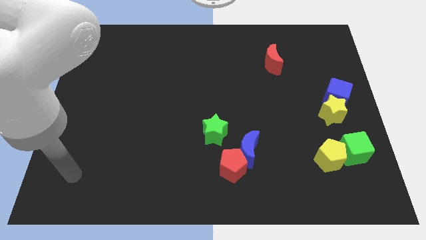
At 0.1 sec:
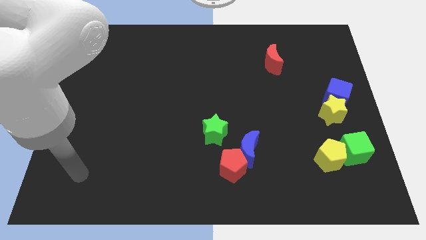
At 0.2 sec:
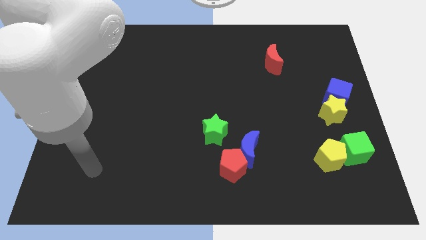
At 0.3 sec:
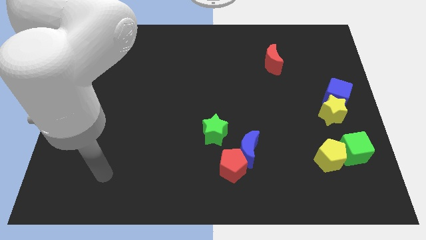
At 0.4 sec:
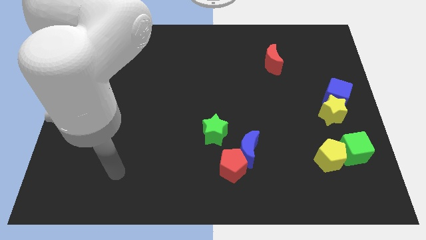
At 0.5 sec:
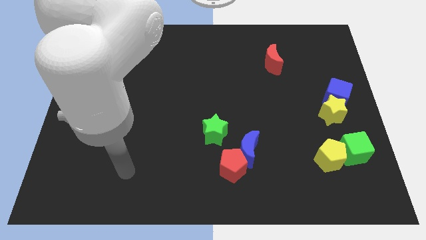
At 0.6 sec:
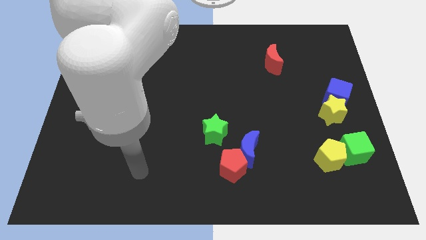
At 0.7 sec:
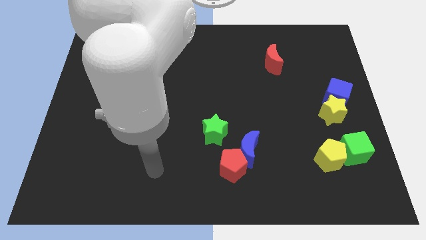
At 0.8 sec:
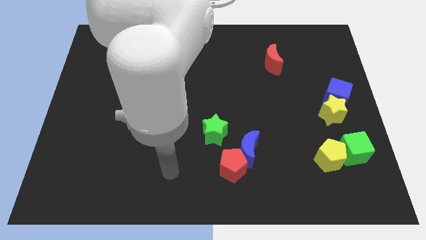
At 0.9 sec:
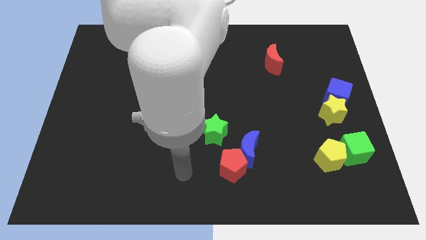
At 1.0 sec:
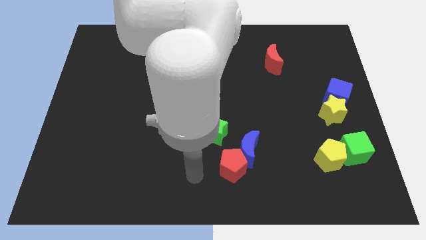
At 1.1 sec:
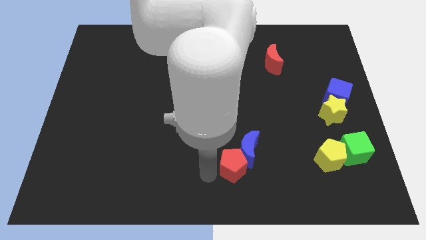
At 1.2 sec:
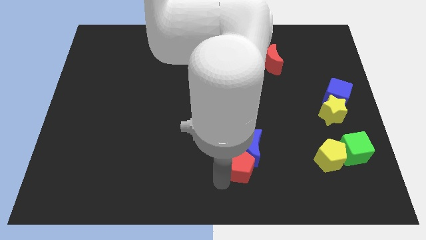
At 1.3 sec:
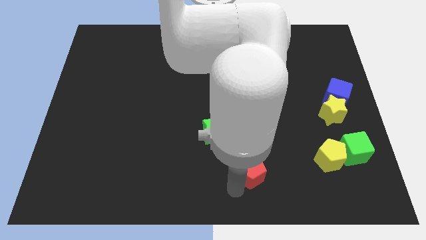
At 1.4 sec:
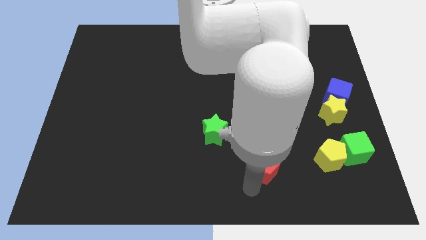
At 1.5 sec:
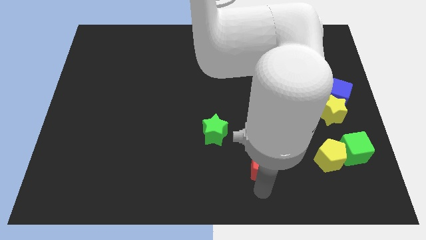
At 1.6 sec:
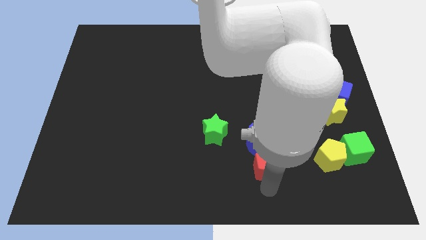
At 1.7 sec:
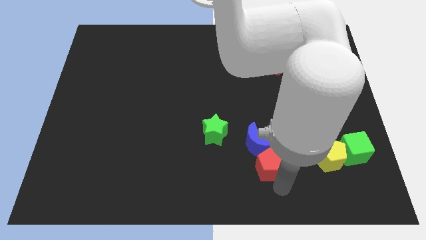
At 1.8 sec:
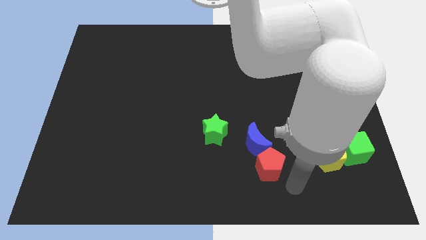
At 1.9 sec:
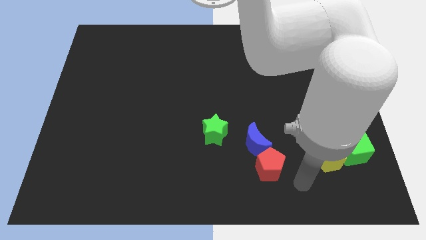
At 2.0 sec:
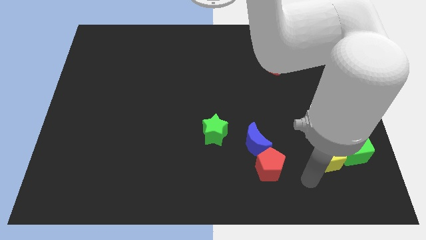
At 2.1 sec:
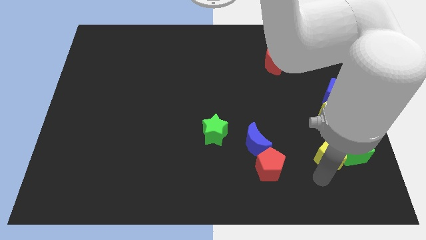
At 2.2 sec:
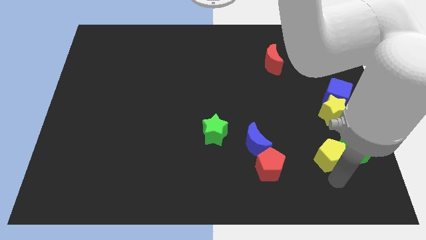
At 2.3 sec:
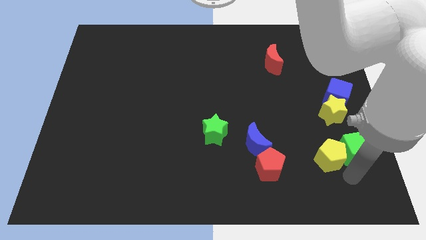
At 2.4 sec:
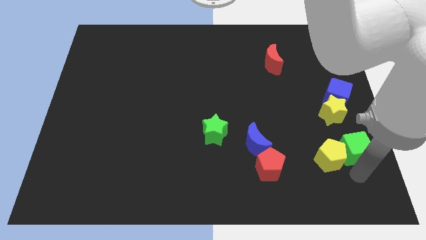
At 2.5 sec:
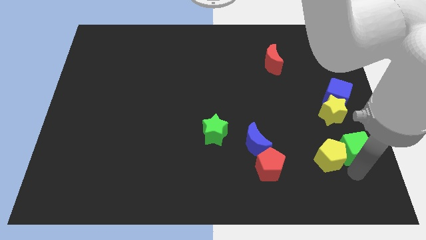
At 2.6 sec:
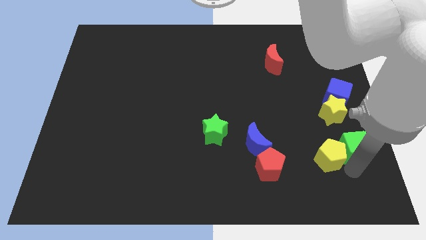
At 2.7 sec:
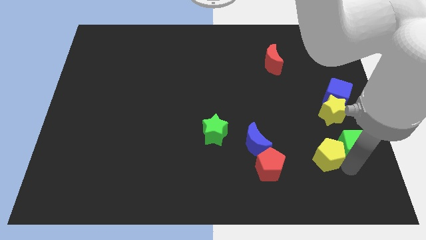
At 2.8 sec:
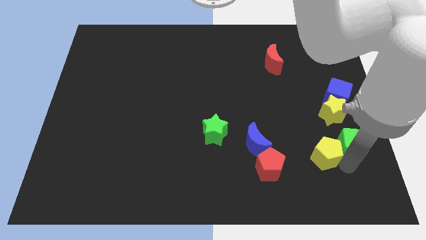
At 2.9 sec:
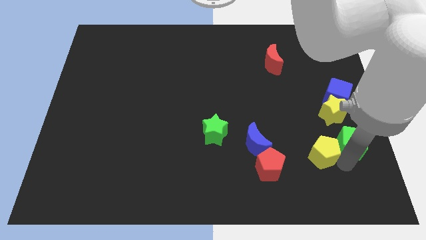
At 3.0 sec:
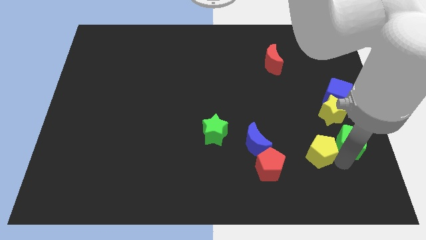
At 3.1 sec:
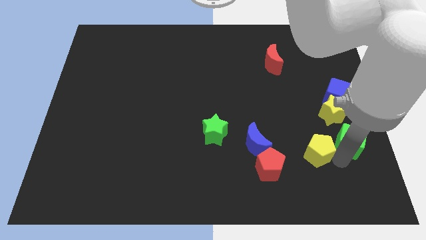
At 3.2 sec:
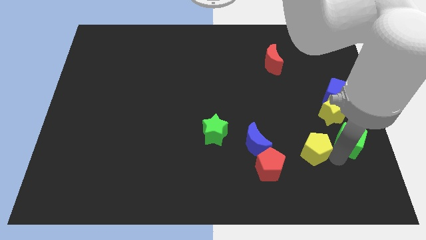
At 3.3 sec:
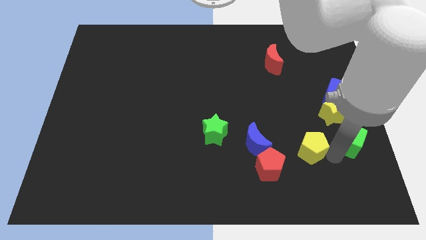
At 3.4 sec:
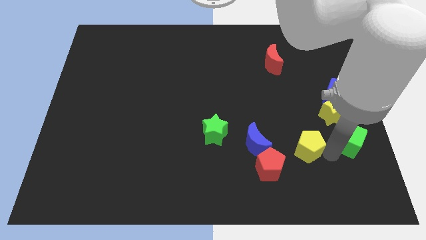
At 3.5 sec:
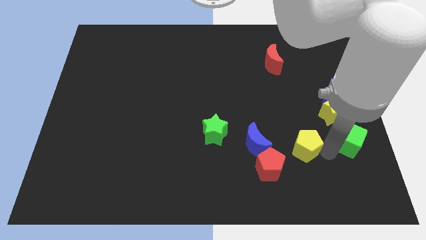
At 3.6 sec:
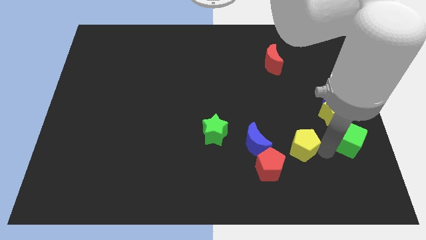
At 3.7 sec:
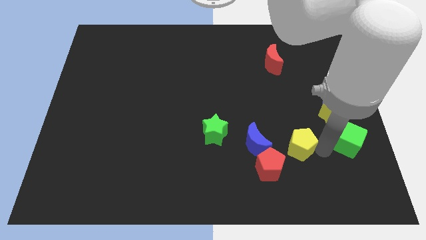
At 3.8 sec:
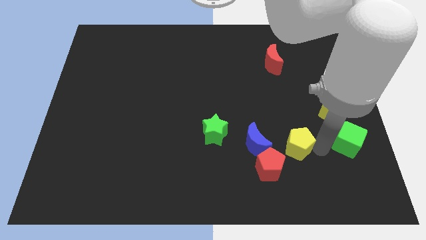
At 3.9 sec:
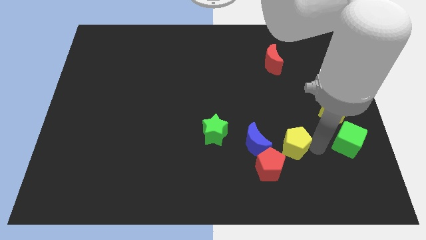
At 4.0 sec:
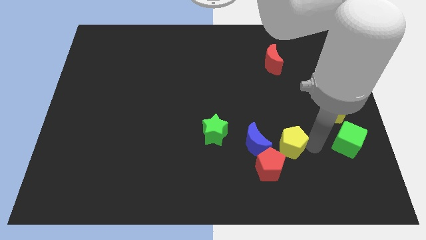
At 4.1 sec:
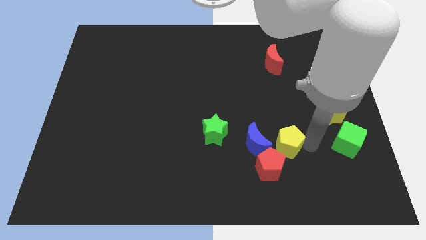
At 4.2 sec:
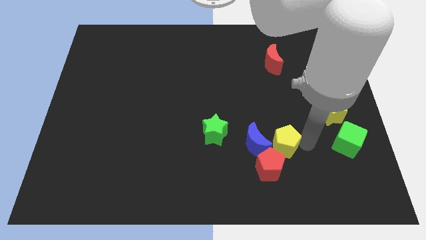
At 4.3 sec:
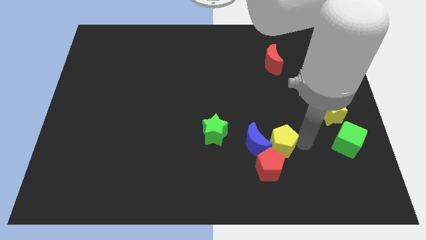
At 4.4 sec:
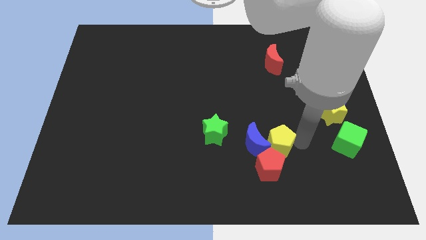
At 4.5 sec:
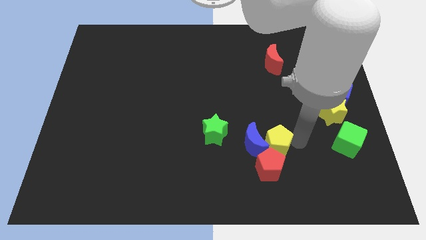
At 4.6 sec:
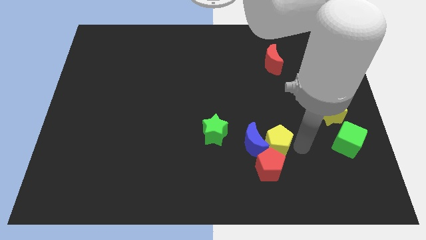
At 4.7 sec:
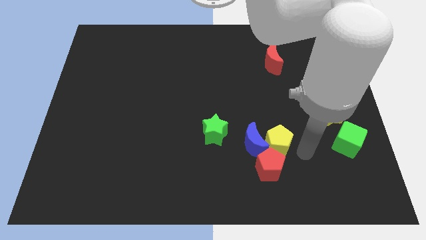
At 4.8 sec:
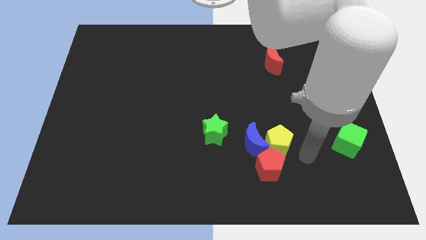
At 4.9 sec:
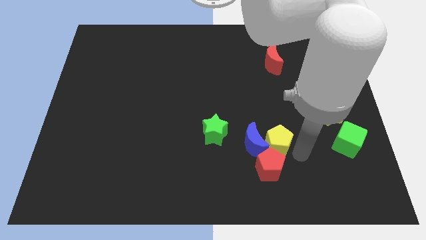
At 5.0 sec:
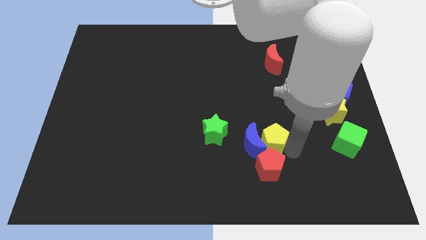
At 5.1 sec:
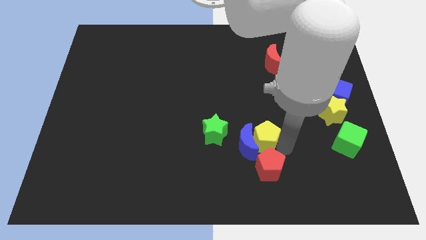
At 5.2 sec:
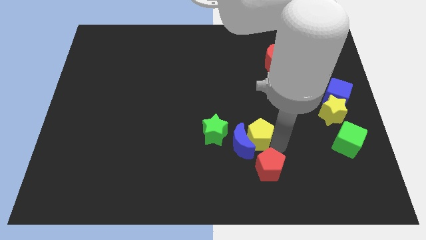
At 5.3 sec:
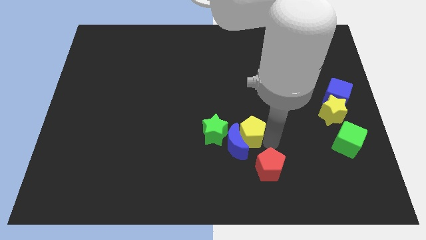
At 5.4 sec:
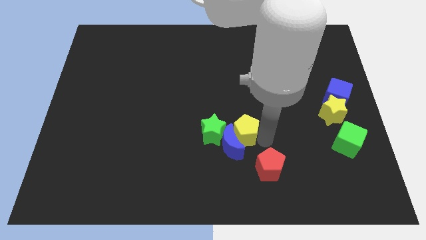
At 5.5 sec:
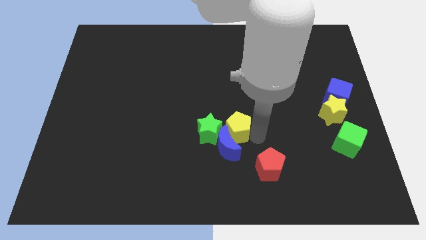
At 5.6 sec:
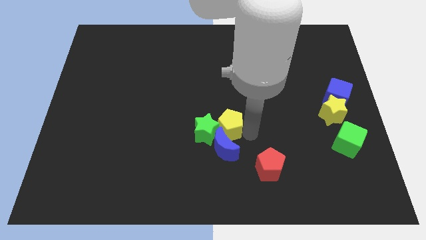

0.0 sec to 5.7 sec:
push the yellow pentagon to the green star

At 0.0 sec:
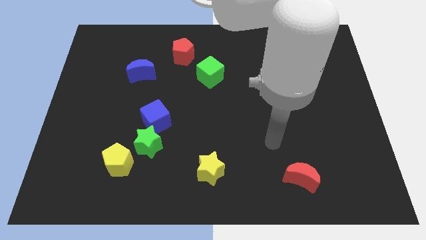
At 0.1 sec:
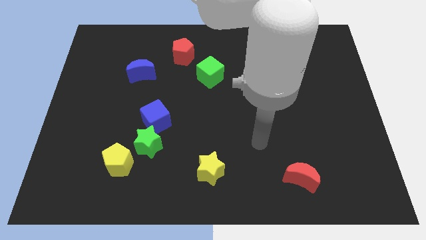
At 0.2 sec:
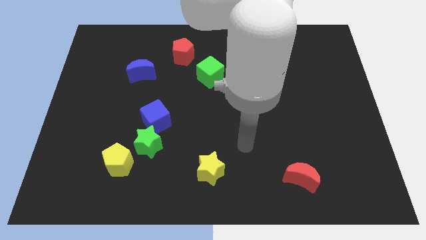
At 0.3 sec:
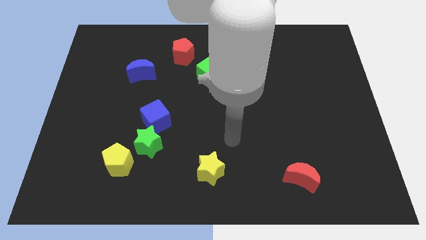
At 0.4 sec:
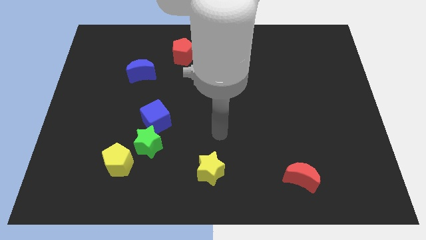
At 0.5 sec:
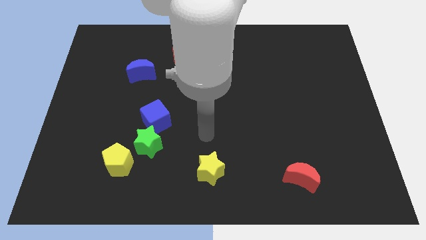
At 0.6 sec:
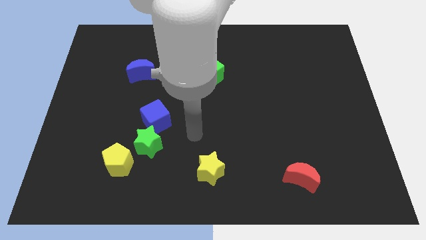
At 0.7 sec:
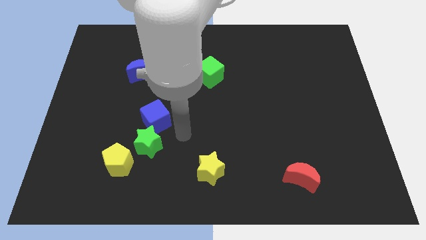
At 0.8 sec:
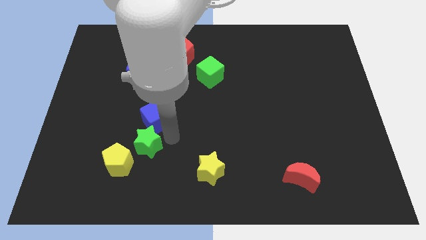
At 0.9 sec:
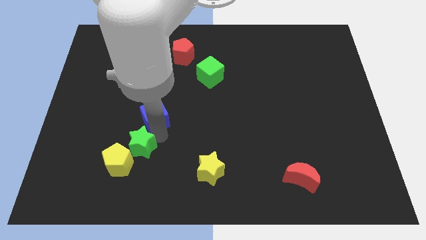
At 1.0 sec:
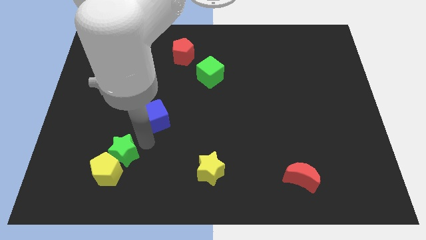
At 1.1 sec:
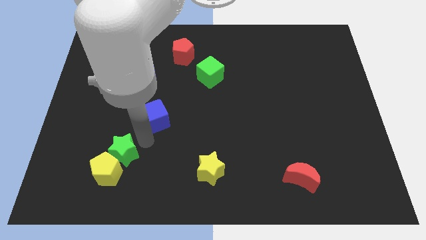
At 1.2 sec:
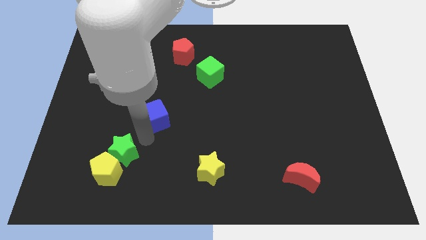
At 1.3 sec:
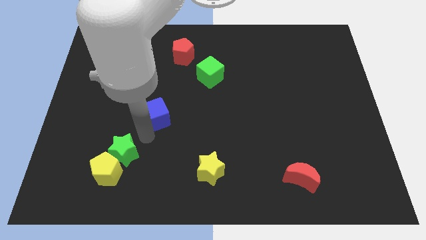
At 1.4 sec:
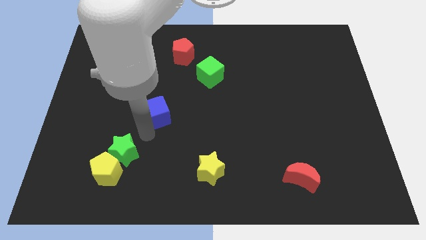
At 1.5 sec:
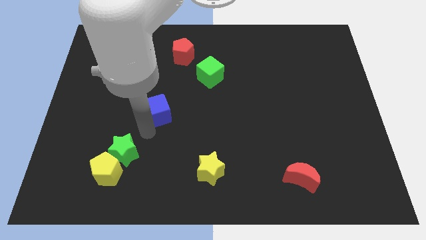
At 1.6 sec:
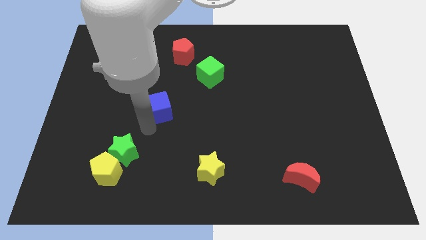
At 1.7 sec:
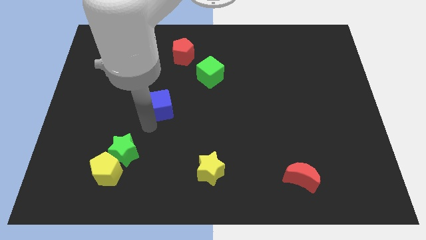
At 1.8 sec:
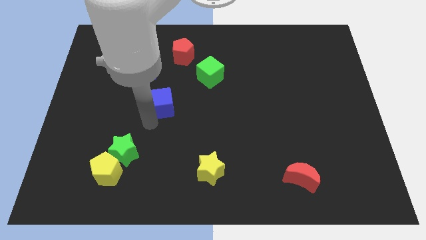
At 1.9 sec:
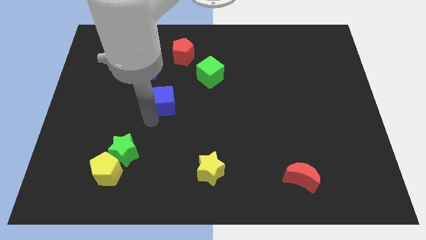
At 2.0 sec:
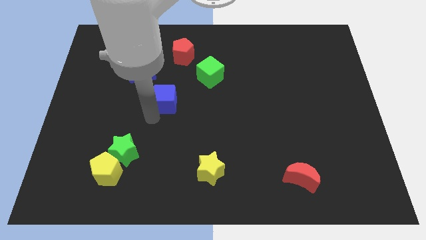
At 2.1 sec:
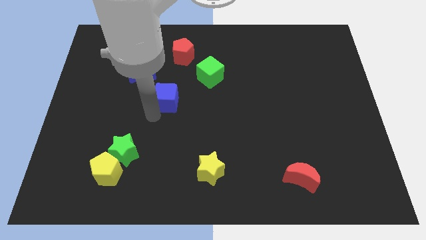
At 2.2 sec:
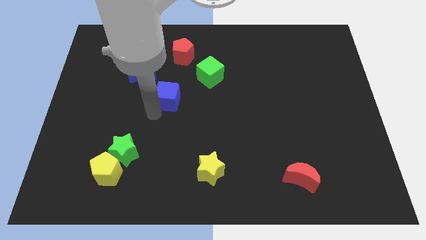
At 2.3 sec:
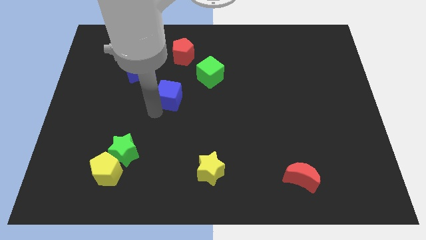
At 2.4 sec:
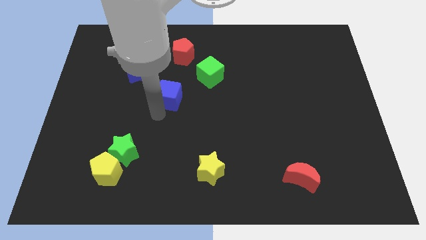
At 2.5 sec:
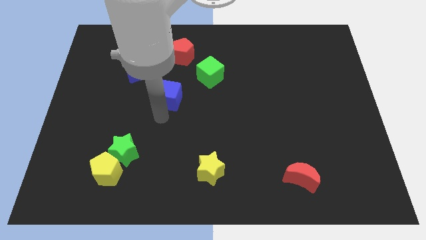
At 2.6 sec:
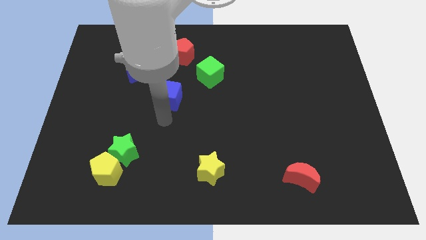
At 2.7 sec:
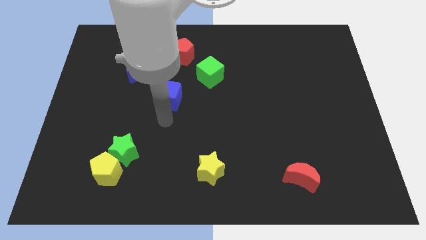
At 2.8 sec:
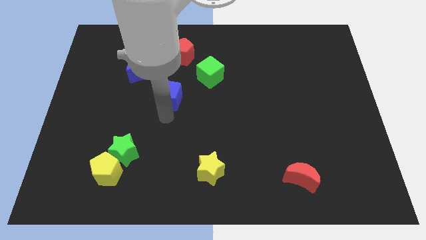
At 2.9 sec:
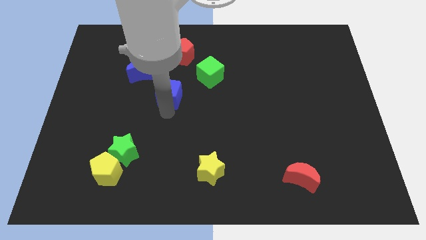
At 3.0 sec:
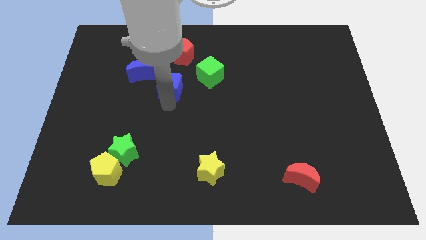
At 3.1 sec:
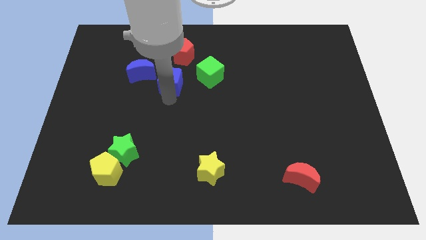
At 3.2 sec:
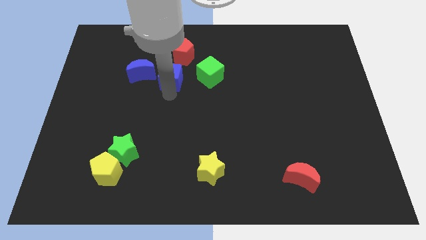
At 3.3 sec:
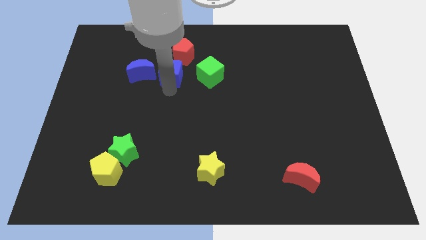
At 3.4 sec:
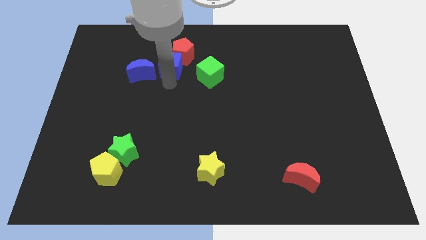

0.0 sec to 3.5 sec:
put the blue cube close to the red pentagon
